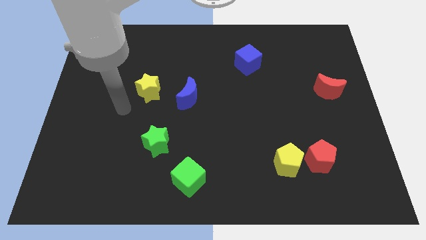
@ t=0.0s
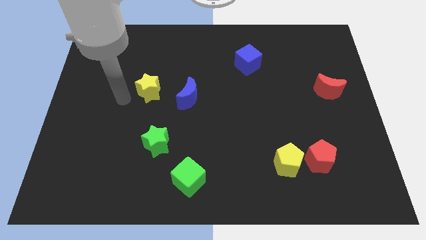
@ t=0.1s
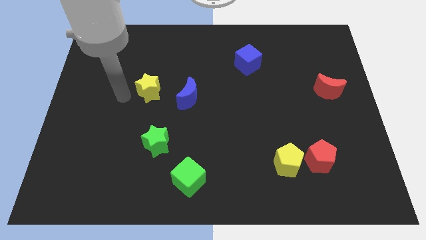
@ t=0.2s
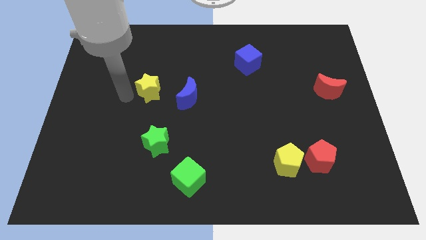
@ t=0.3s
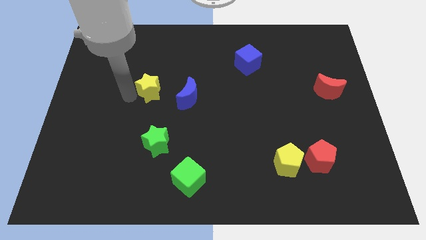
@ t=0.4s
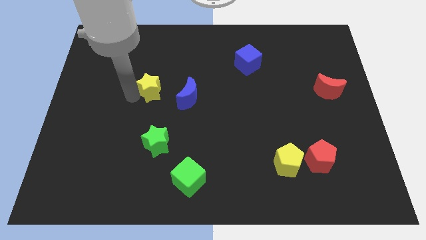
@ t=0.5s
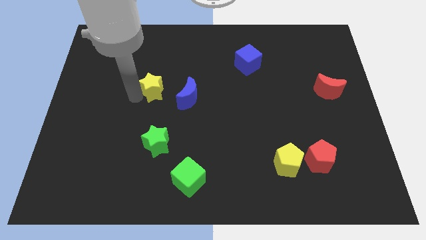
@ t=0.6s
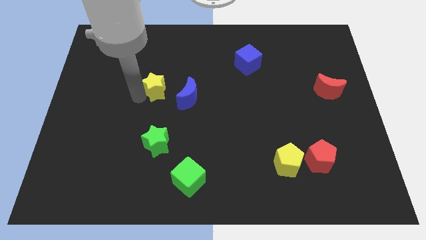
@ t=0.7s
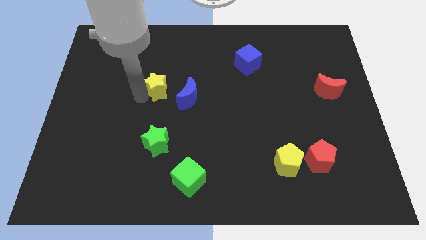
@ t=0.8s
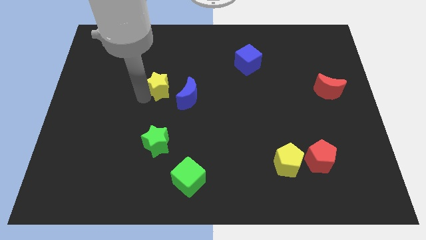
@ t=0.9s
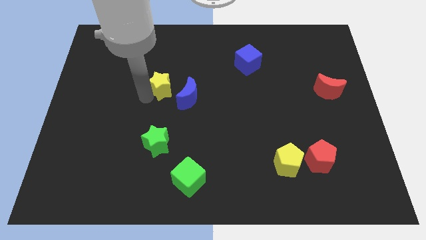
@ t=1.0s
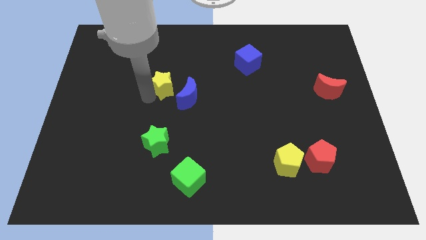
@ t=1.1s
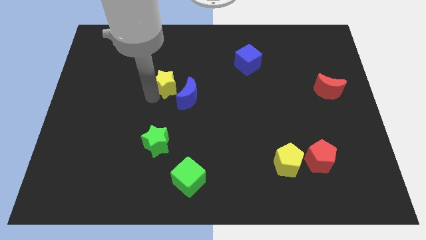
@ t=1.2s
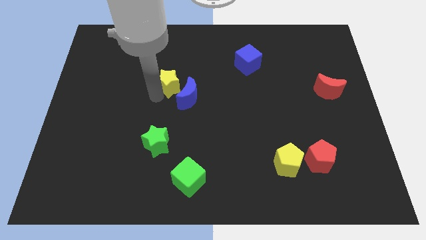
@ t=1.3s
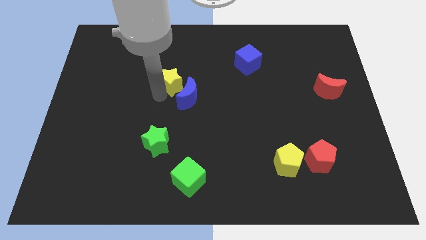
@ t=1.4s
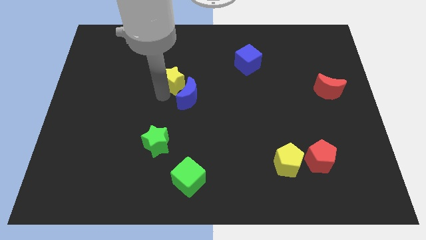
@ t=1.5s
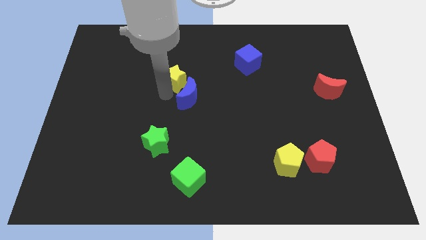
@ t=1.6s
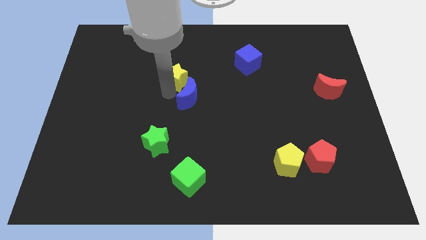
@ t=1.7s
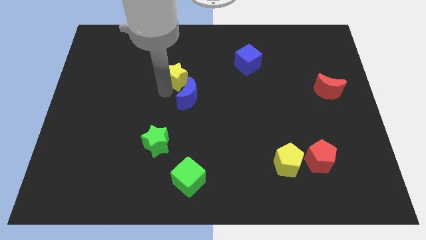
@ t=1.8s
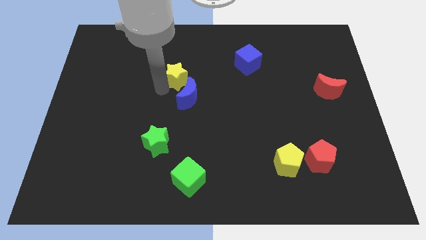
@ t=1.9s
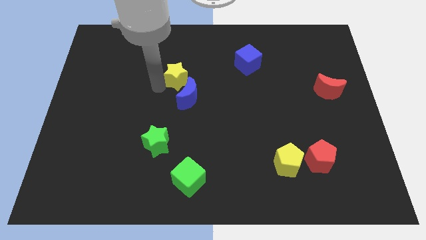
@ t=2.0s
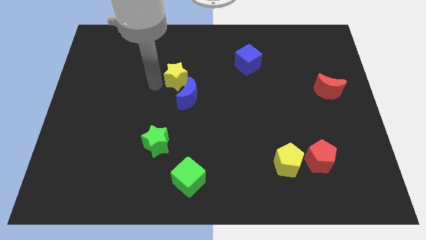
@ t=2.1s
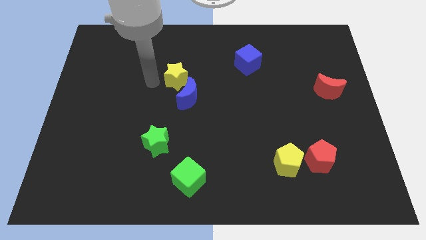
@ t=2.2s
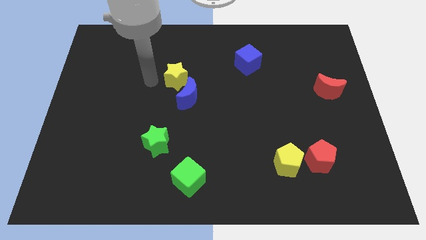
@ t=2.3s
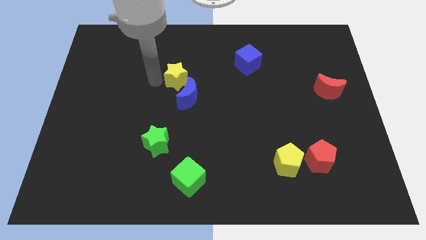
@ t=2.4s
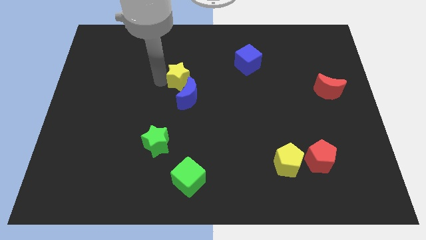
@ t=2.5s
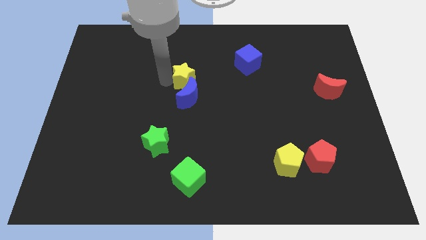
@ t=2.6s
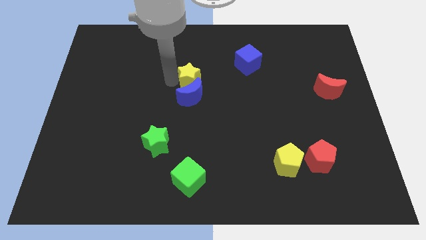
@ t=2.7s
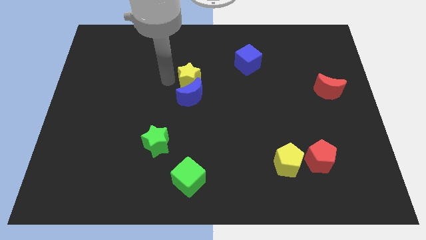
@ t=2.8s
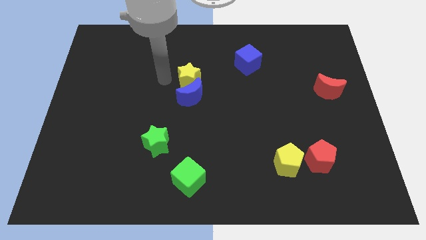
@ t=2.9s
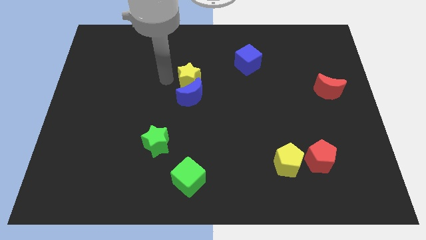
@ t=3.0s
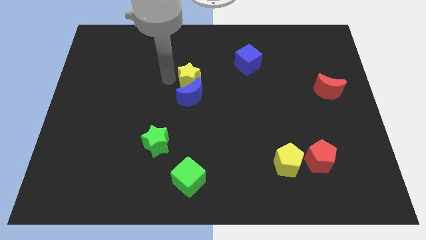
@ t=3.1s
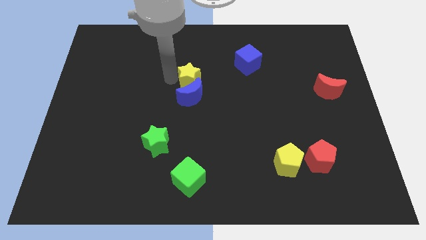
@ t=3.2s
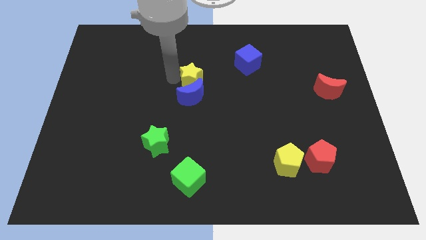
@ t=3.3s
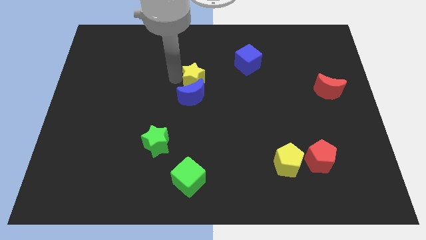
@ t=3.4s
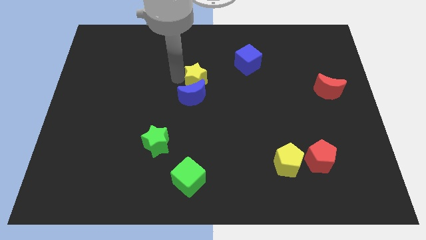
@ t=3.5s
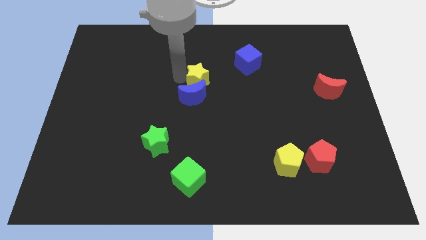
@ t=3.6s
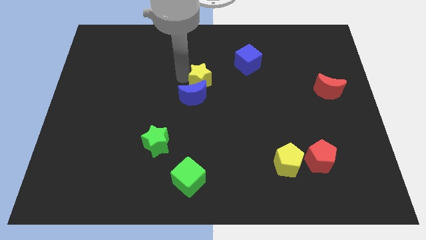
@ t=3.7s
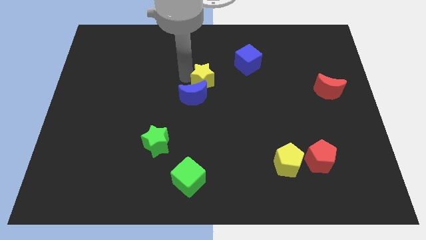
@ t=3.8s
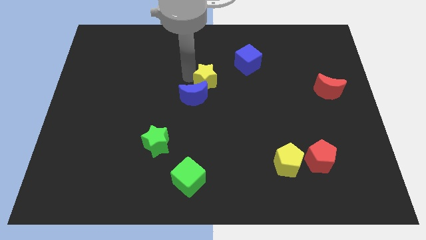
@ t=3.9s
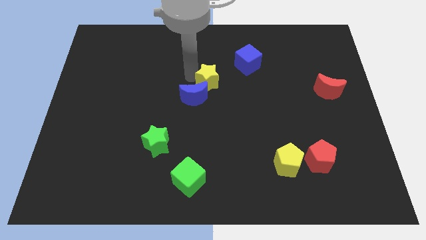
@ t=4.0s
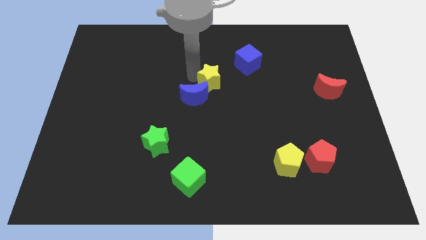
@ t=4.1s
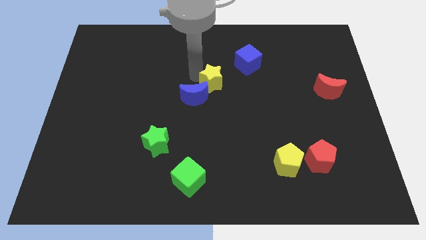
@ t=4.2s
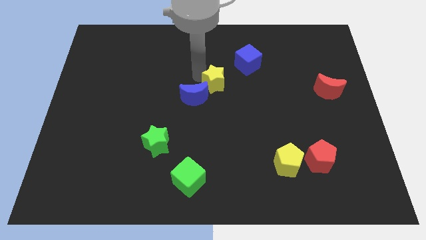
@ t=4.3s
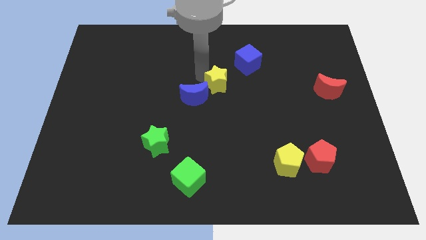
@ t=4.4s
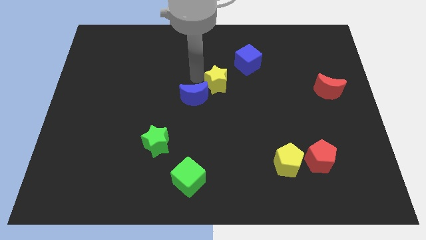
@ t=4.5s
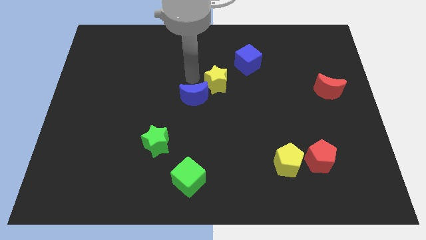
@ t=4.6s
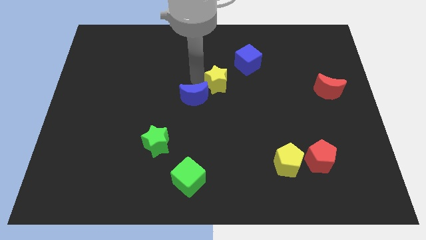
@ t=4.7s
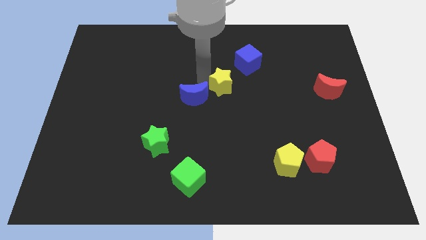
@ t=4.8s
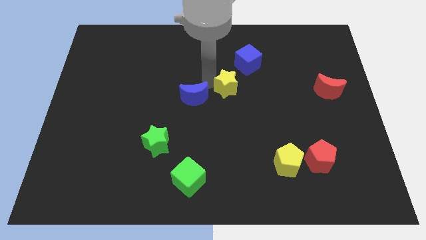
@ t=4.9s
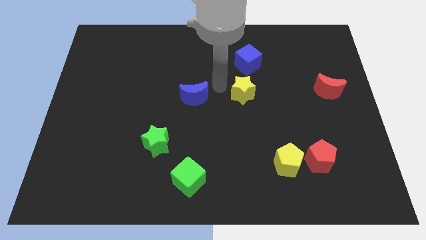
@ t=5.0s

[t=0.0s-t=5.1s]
push the yellow star right

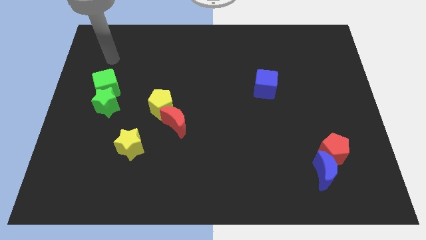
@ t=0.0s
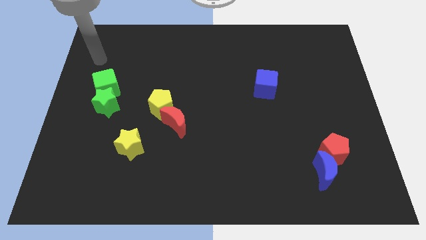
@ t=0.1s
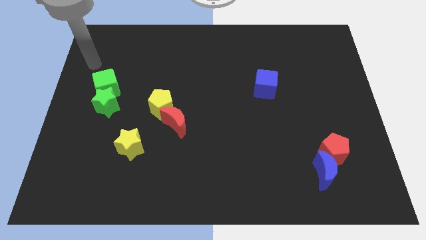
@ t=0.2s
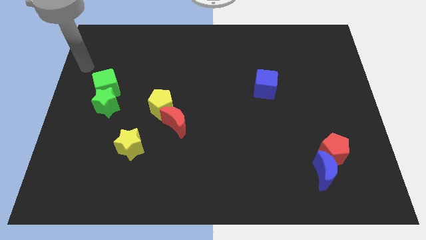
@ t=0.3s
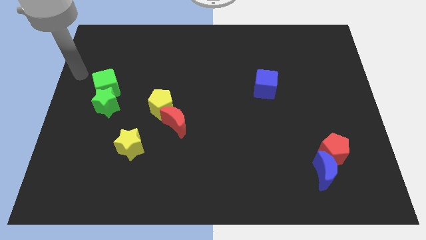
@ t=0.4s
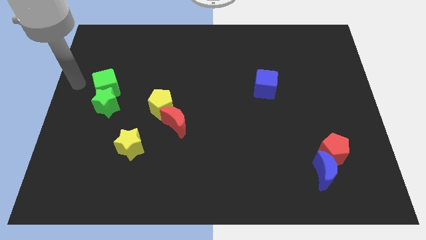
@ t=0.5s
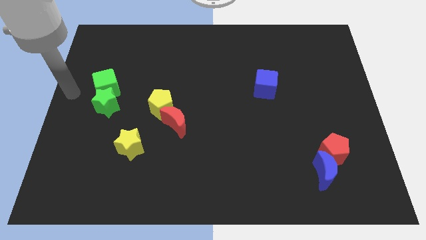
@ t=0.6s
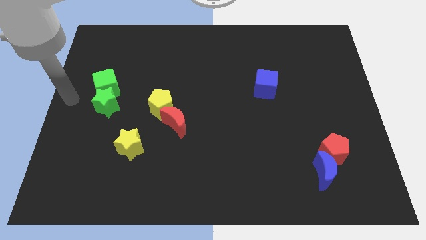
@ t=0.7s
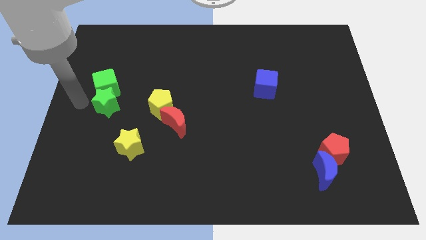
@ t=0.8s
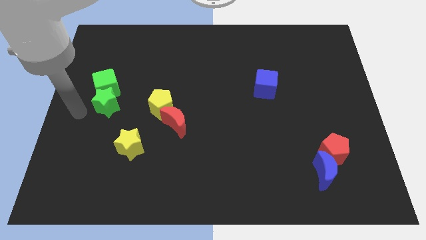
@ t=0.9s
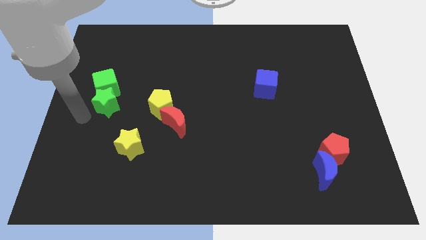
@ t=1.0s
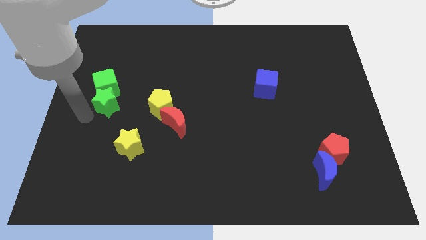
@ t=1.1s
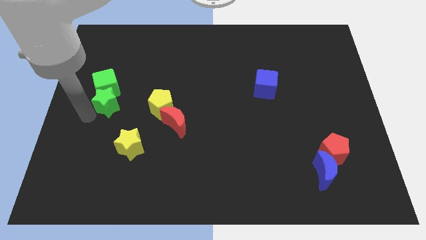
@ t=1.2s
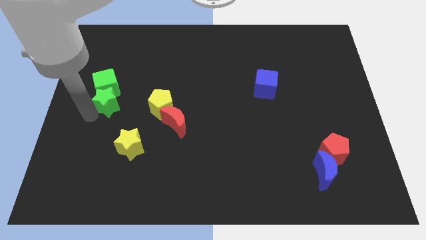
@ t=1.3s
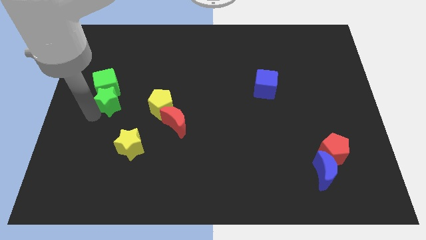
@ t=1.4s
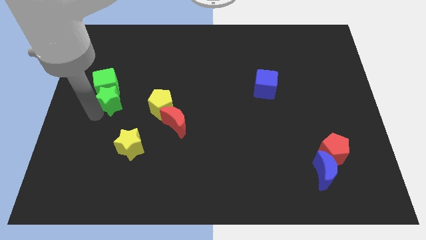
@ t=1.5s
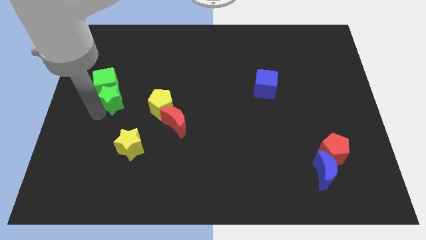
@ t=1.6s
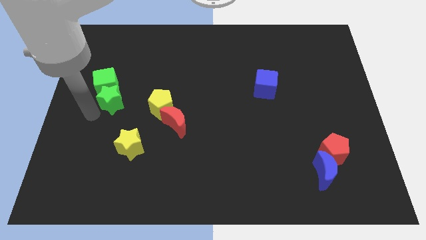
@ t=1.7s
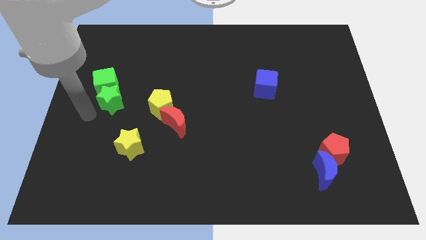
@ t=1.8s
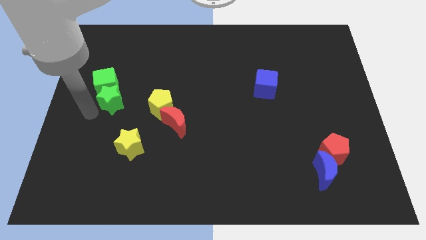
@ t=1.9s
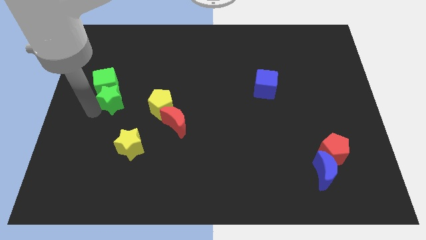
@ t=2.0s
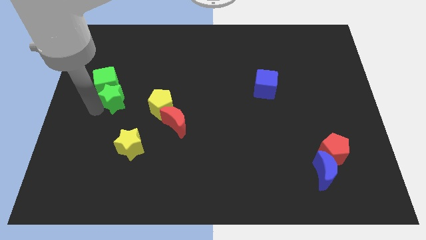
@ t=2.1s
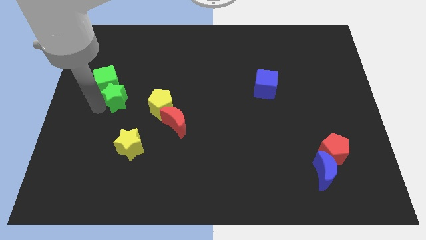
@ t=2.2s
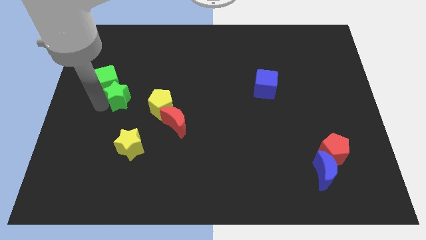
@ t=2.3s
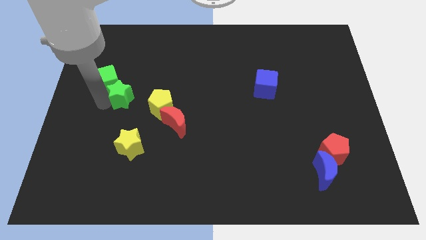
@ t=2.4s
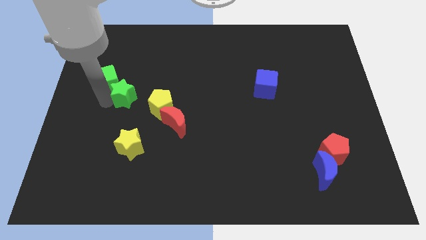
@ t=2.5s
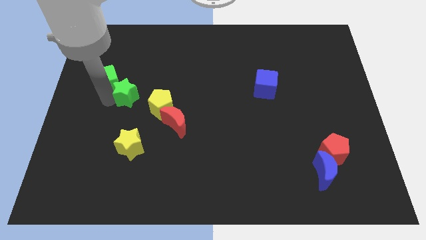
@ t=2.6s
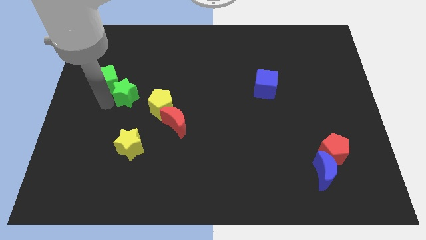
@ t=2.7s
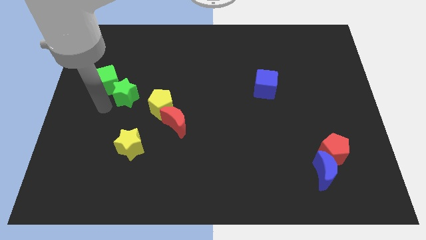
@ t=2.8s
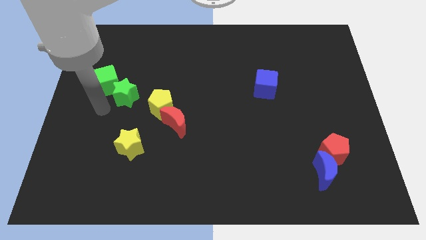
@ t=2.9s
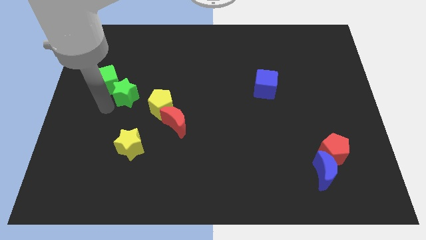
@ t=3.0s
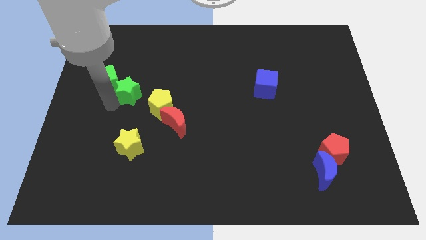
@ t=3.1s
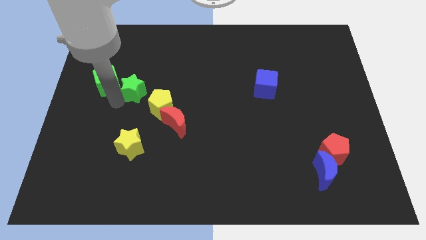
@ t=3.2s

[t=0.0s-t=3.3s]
slightly push the green star upwards and then right
